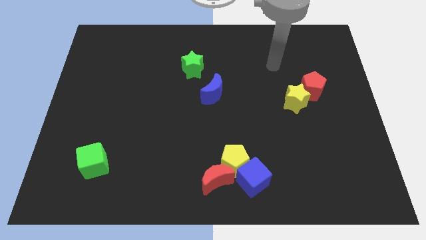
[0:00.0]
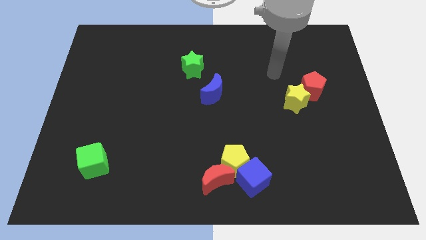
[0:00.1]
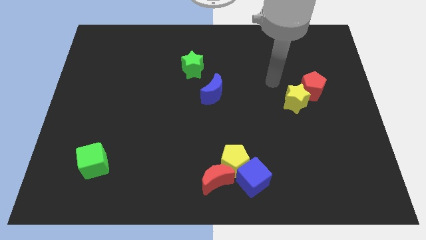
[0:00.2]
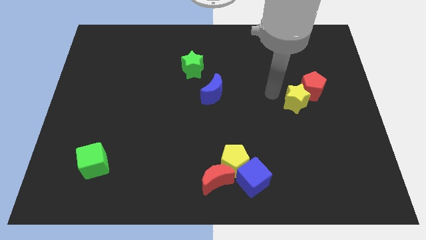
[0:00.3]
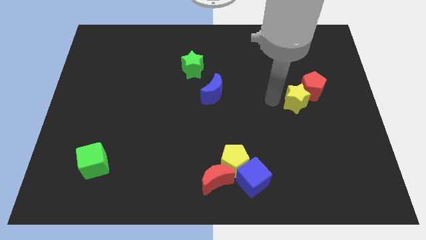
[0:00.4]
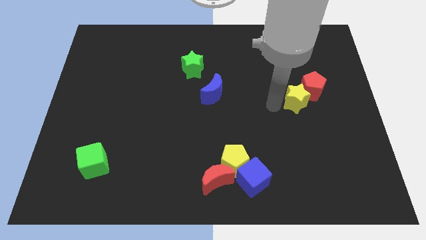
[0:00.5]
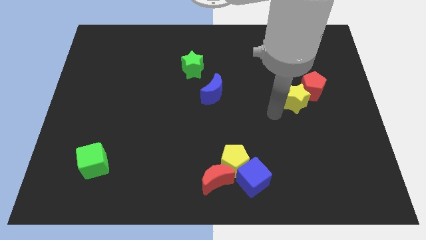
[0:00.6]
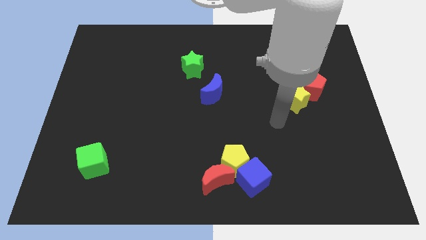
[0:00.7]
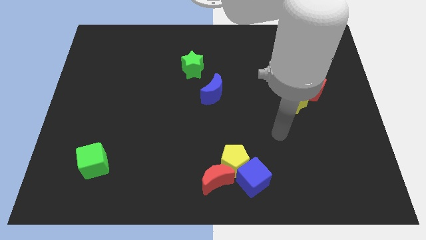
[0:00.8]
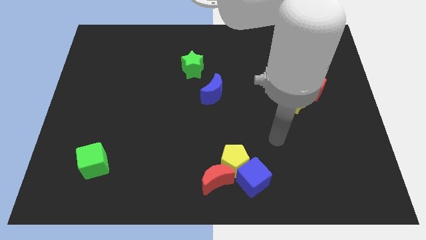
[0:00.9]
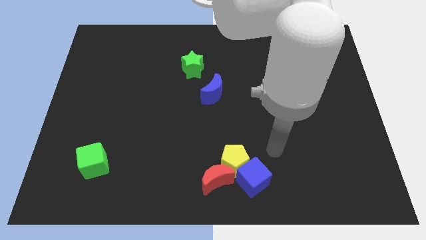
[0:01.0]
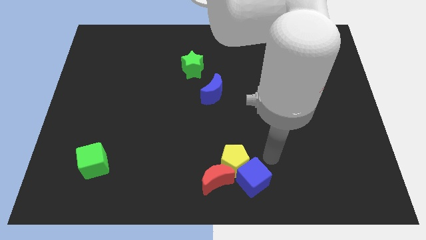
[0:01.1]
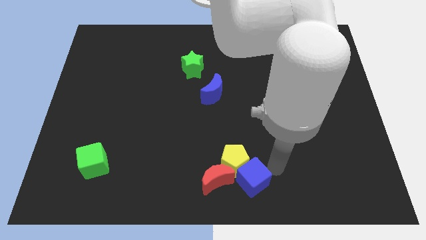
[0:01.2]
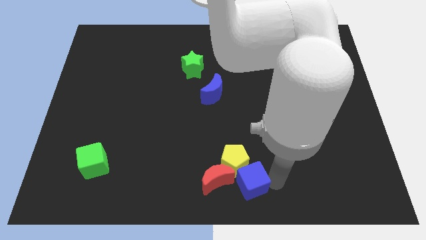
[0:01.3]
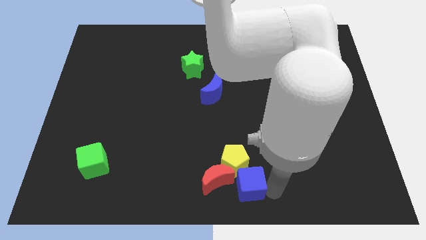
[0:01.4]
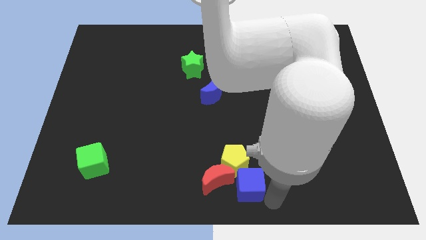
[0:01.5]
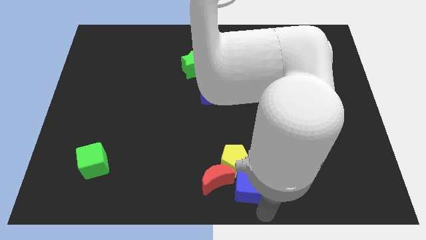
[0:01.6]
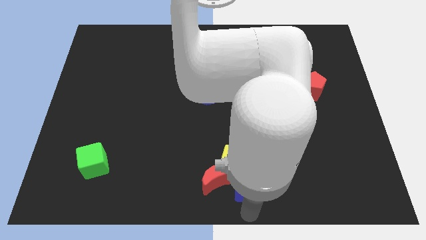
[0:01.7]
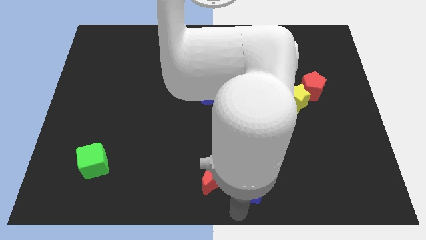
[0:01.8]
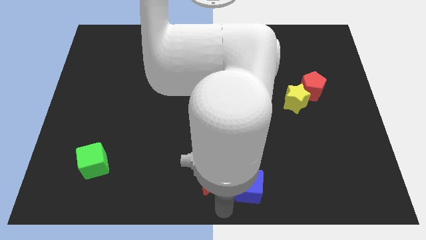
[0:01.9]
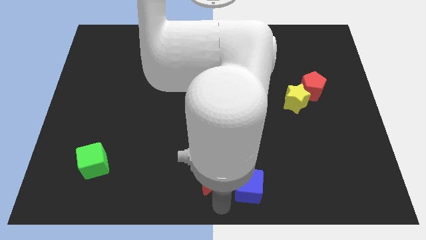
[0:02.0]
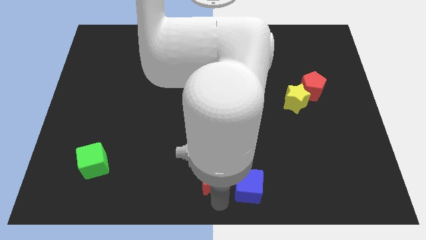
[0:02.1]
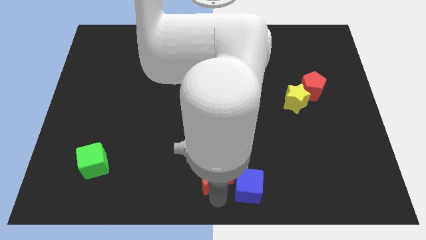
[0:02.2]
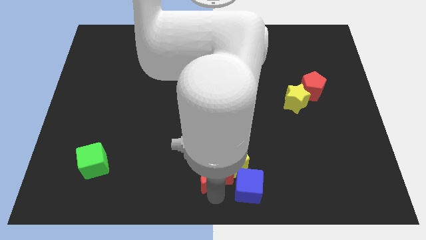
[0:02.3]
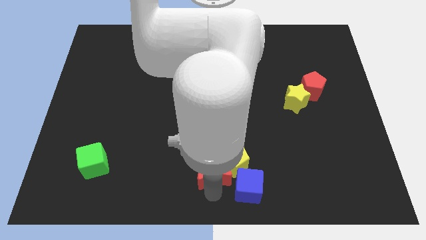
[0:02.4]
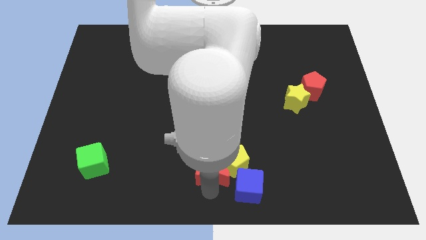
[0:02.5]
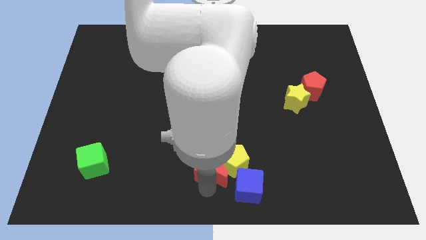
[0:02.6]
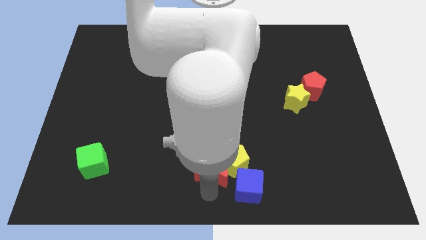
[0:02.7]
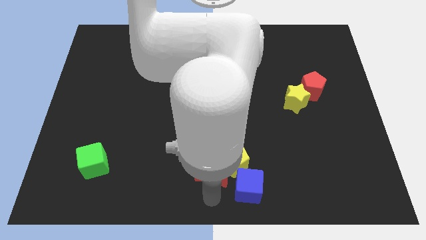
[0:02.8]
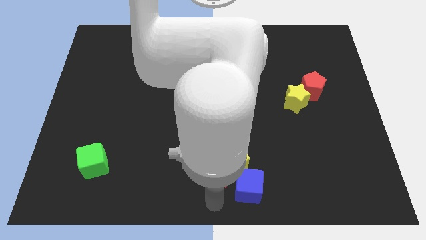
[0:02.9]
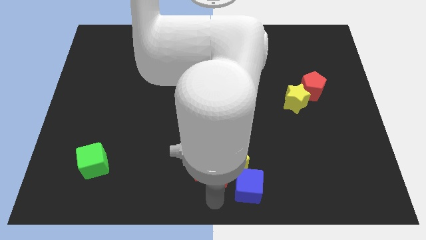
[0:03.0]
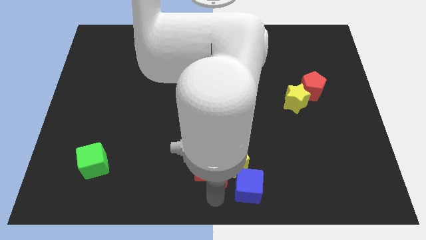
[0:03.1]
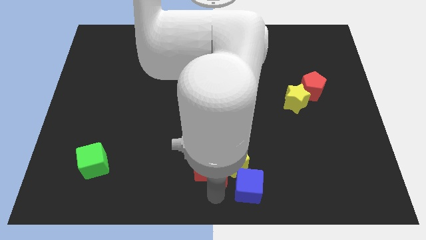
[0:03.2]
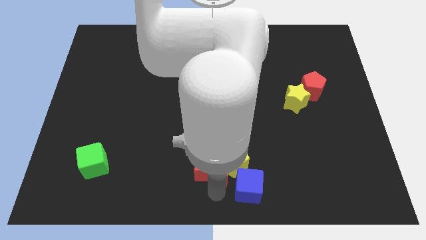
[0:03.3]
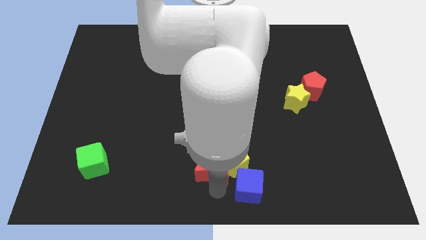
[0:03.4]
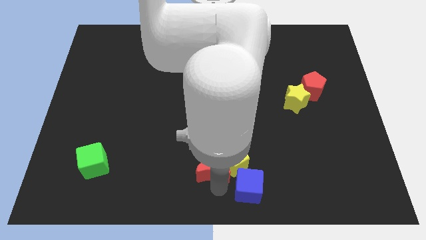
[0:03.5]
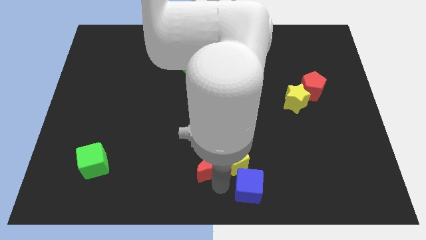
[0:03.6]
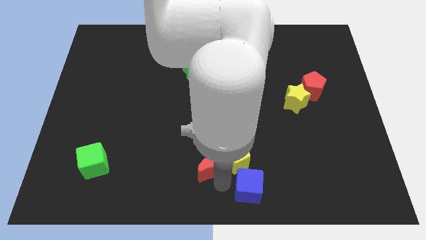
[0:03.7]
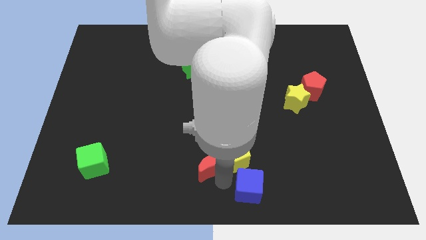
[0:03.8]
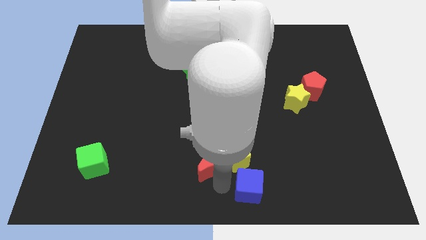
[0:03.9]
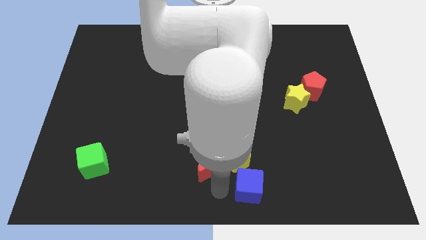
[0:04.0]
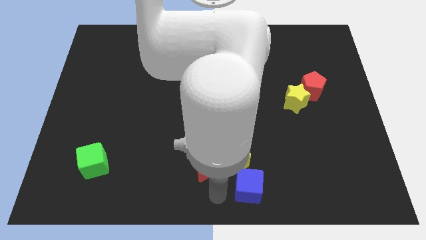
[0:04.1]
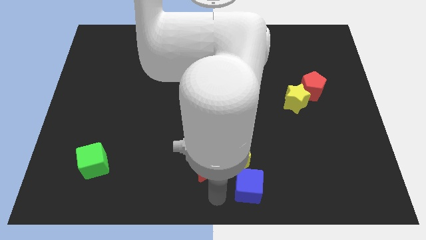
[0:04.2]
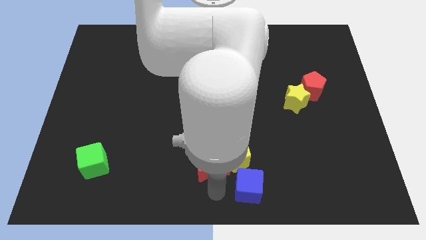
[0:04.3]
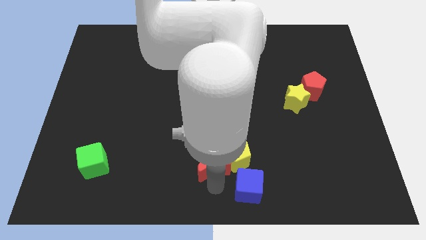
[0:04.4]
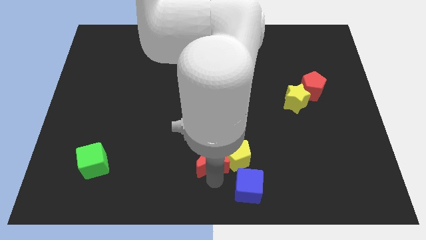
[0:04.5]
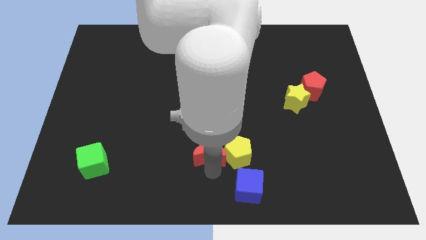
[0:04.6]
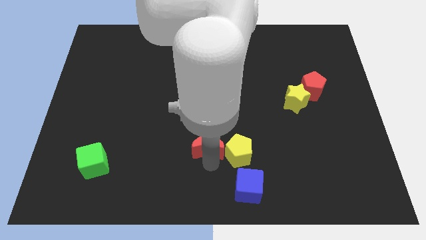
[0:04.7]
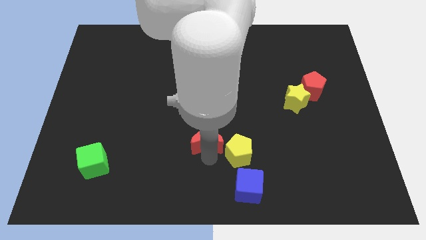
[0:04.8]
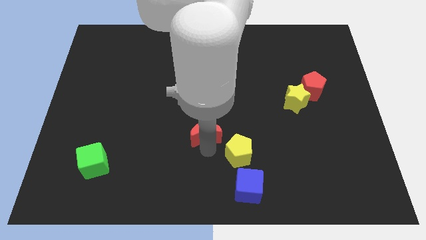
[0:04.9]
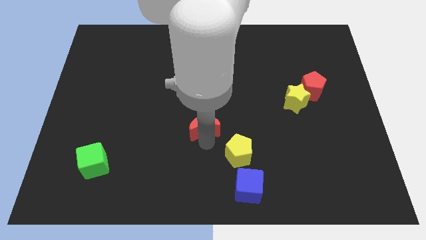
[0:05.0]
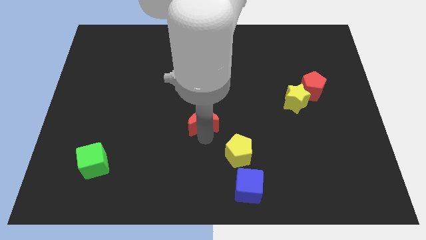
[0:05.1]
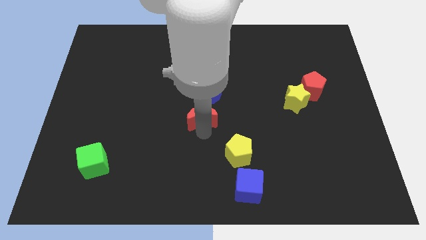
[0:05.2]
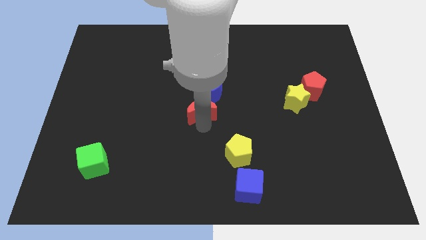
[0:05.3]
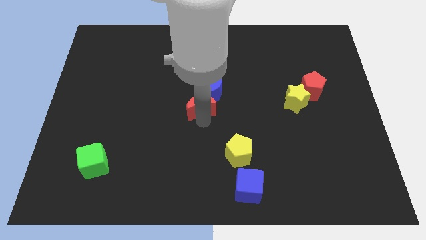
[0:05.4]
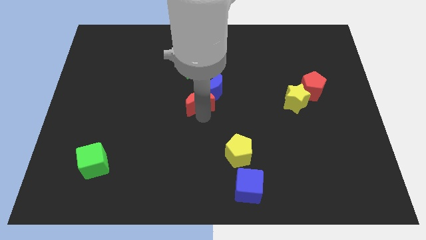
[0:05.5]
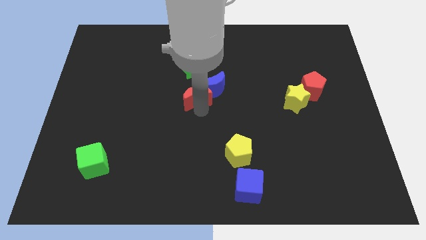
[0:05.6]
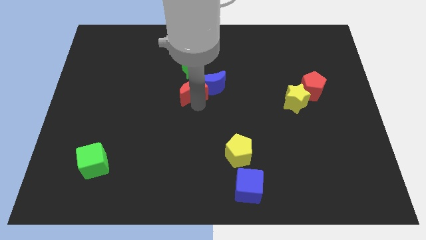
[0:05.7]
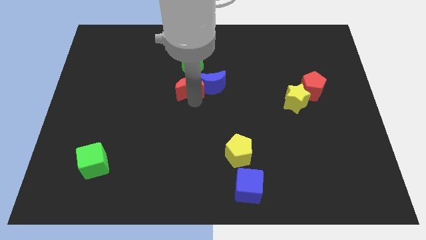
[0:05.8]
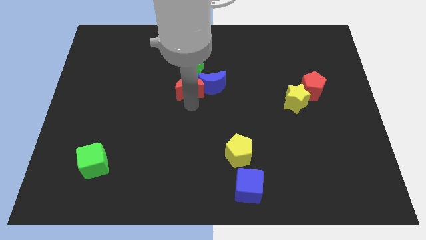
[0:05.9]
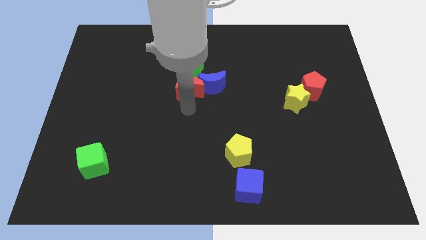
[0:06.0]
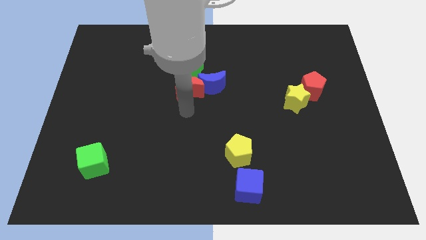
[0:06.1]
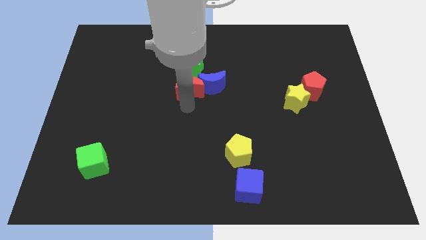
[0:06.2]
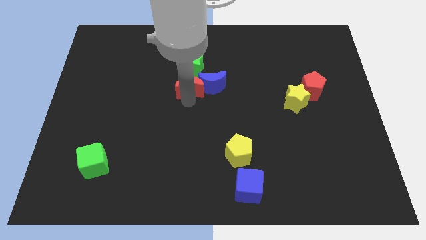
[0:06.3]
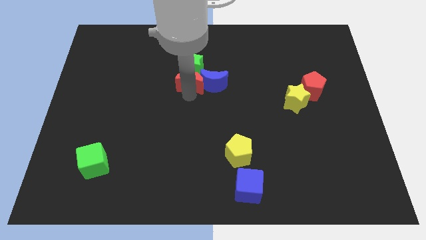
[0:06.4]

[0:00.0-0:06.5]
push the red moon next to the green star

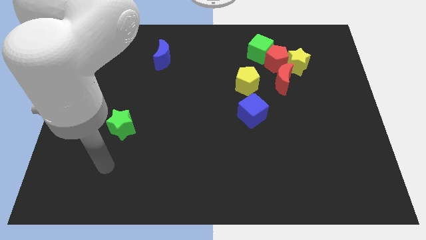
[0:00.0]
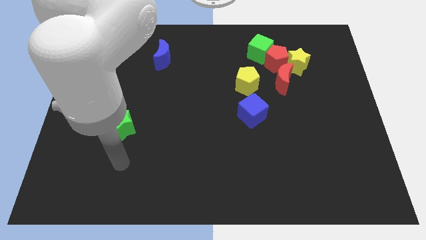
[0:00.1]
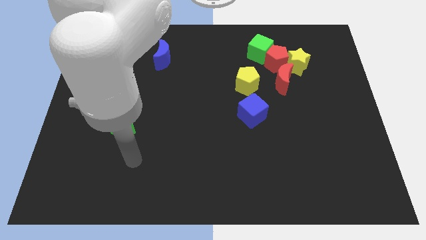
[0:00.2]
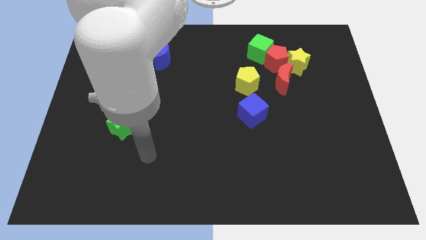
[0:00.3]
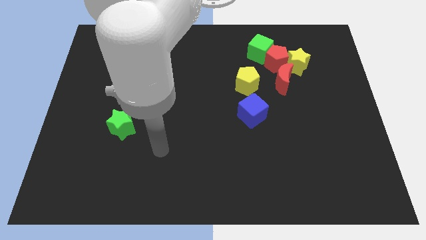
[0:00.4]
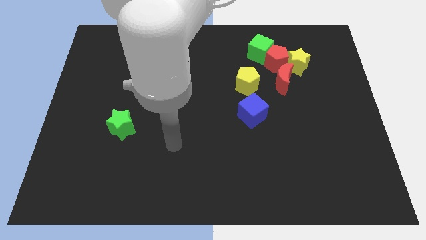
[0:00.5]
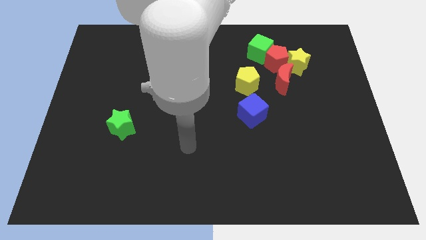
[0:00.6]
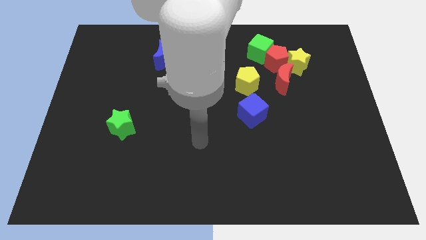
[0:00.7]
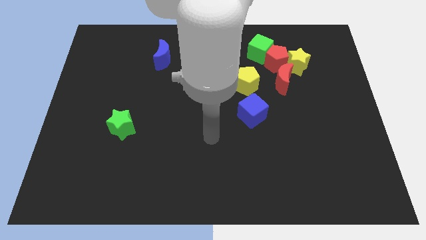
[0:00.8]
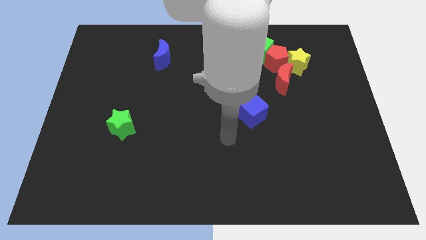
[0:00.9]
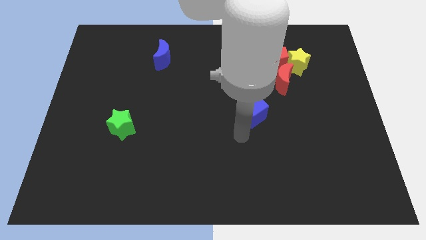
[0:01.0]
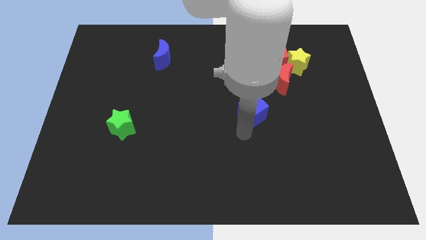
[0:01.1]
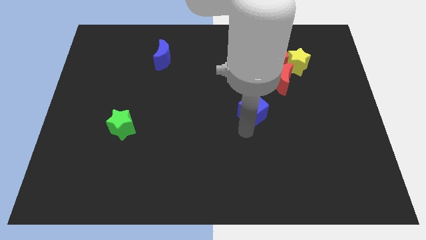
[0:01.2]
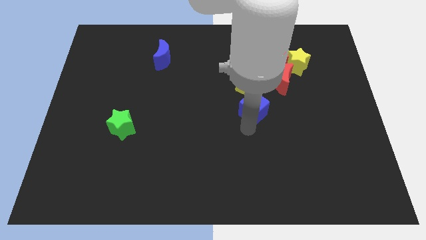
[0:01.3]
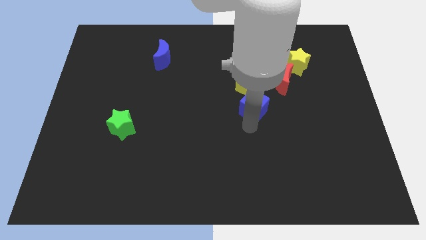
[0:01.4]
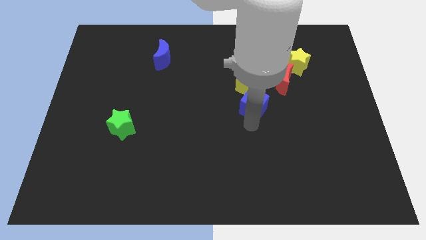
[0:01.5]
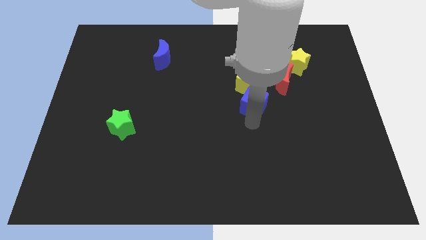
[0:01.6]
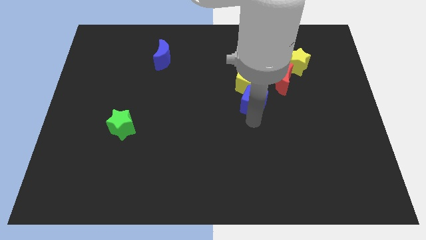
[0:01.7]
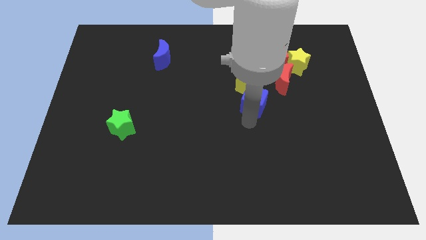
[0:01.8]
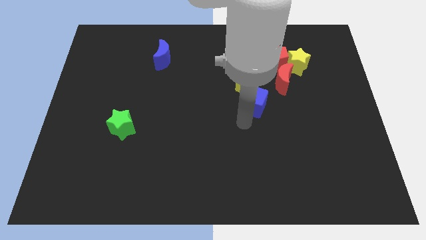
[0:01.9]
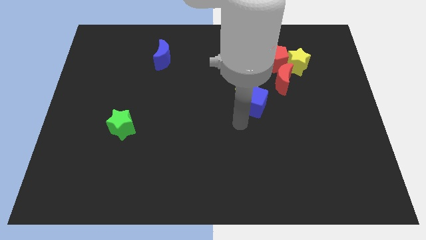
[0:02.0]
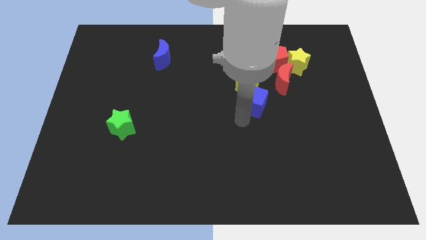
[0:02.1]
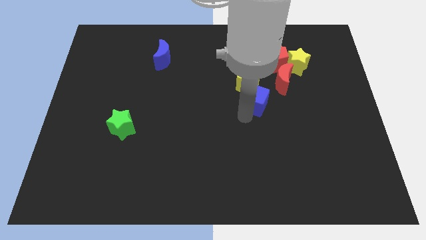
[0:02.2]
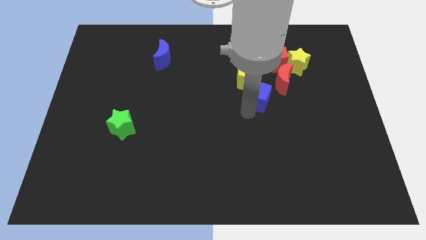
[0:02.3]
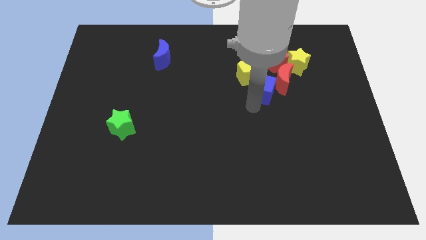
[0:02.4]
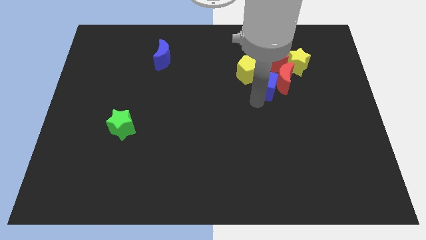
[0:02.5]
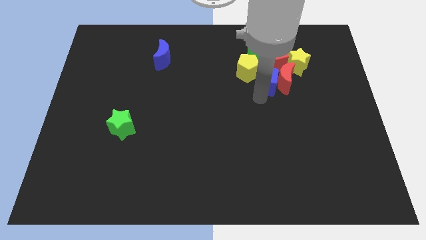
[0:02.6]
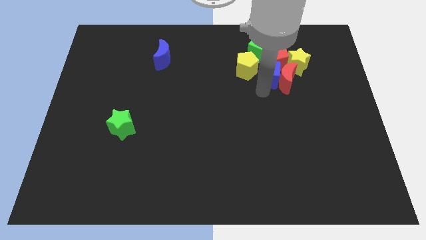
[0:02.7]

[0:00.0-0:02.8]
put the blue cube close to the red pentagon
